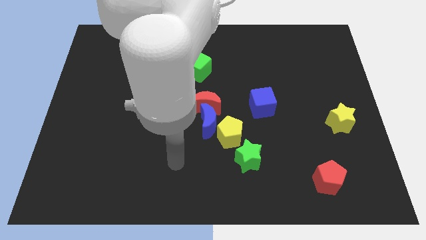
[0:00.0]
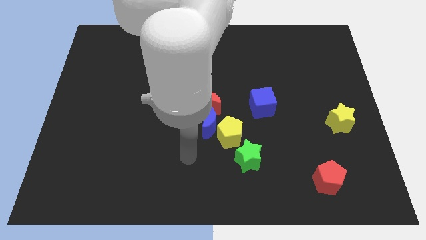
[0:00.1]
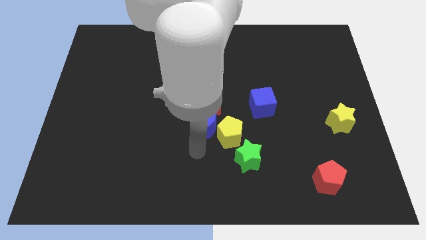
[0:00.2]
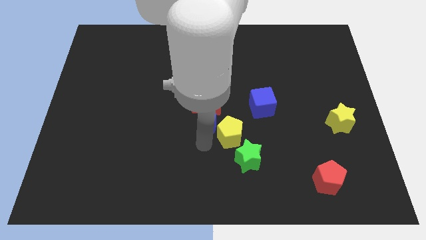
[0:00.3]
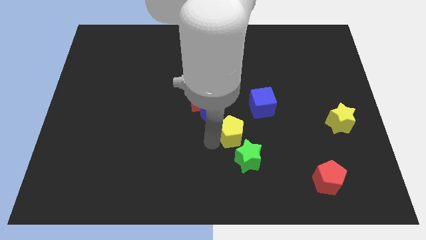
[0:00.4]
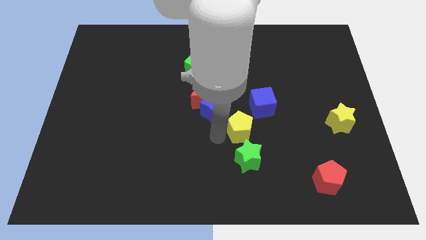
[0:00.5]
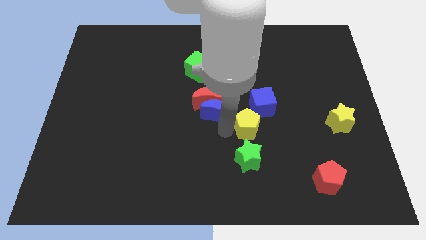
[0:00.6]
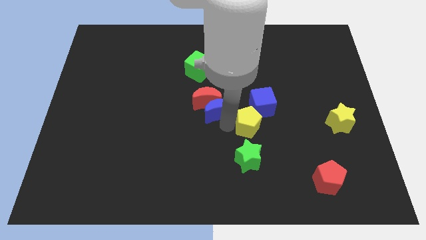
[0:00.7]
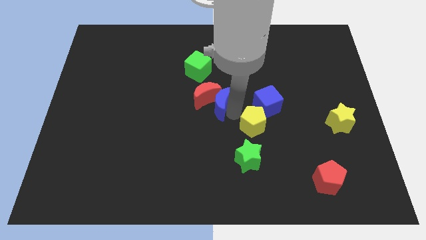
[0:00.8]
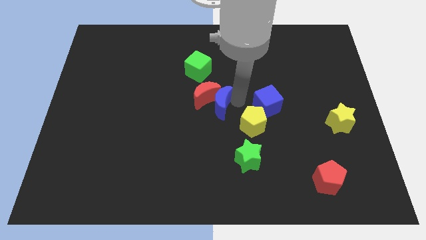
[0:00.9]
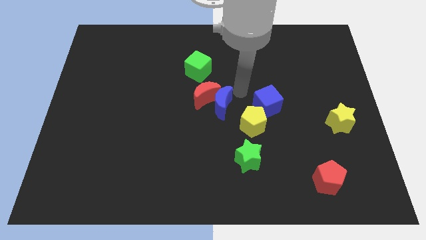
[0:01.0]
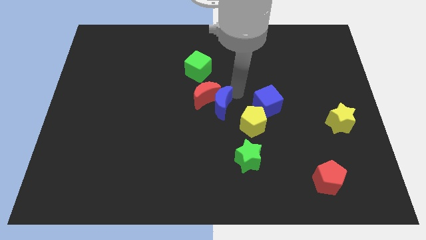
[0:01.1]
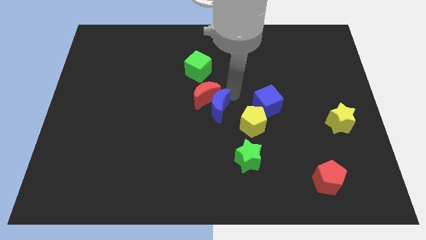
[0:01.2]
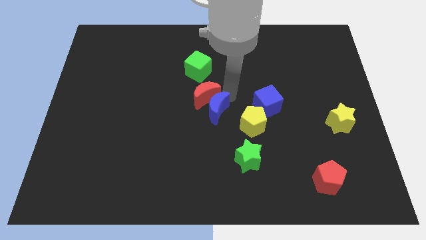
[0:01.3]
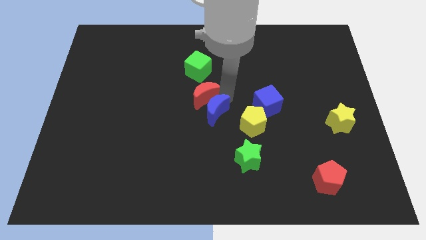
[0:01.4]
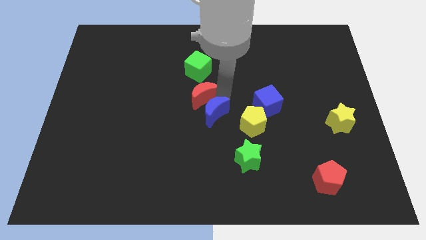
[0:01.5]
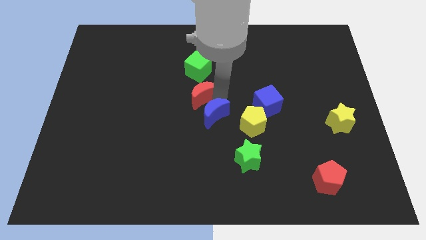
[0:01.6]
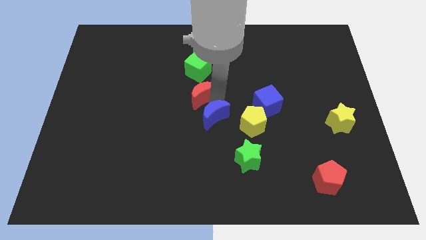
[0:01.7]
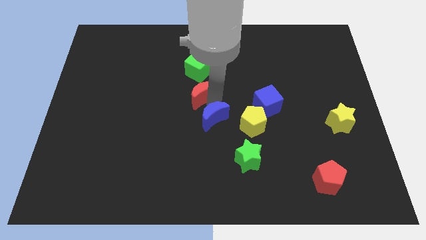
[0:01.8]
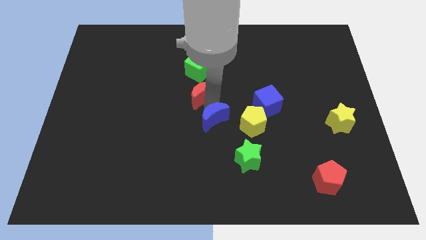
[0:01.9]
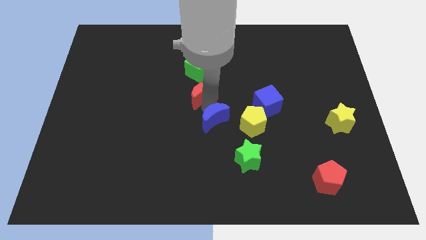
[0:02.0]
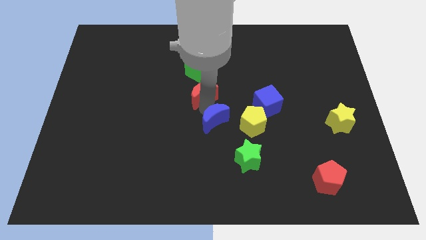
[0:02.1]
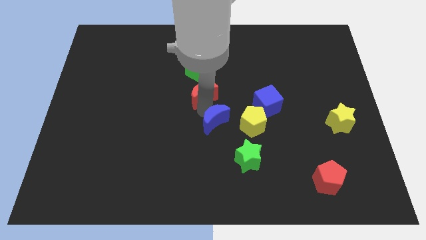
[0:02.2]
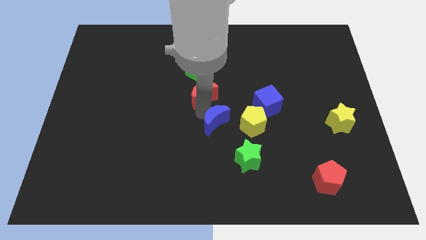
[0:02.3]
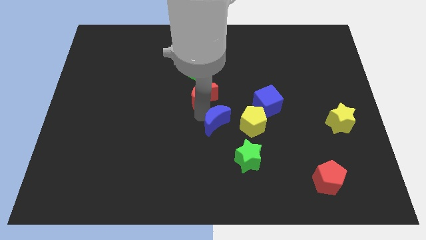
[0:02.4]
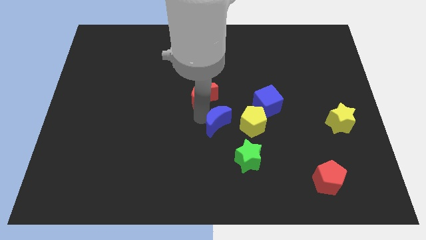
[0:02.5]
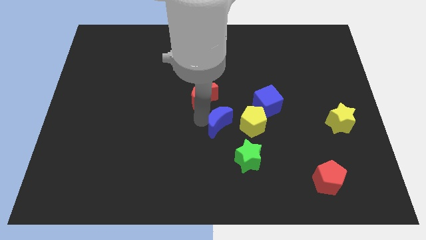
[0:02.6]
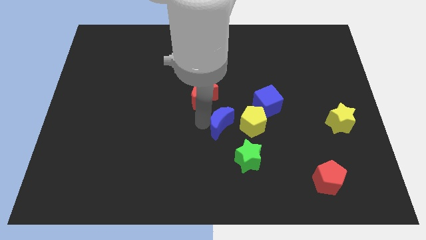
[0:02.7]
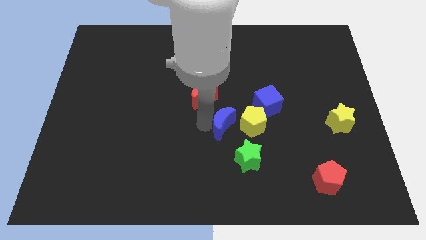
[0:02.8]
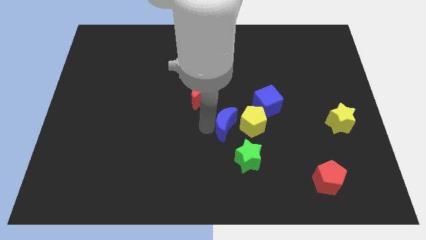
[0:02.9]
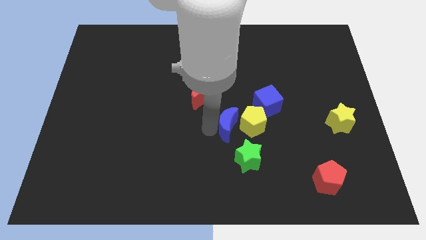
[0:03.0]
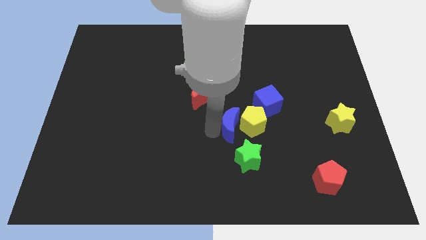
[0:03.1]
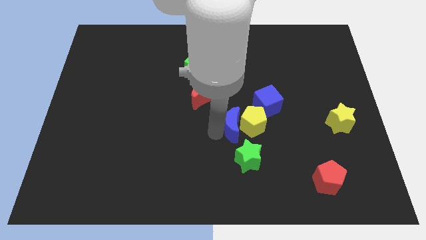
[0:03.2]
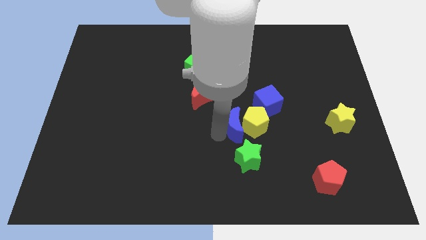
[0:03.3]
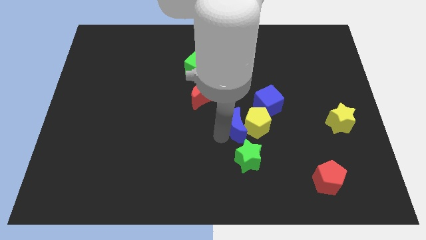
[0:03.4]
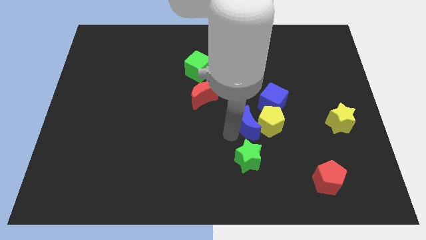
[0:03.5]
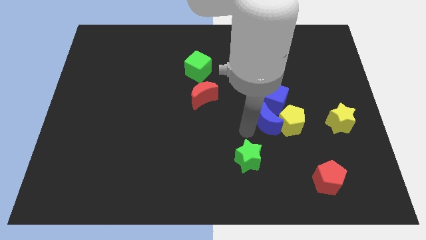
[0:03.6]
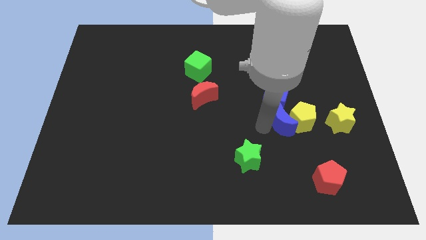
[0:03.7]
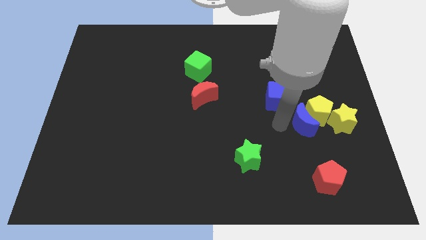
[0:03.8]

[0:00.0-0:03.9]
separate the blue moon from the red moon and yellow pentagon

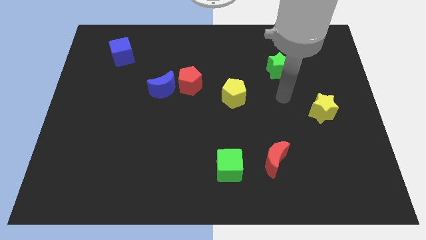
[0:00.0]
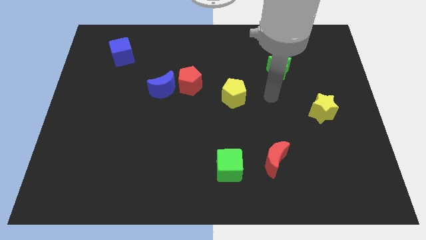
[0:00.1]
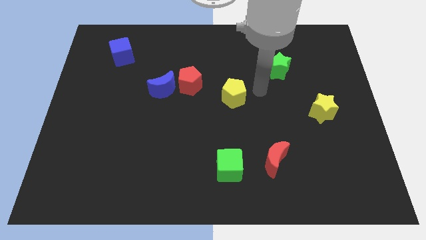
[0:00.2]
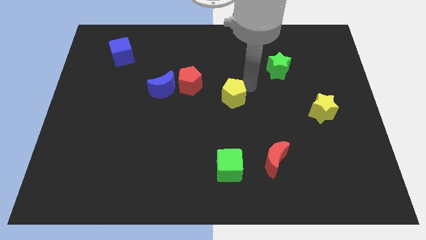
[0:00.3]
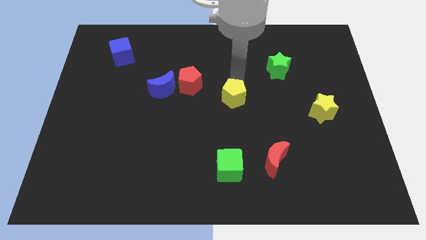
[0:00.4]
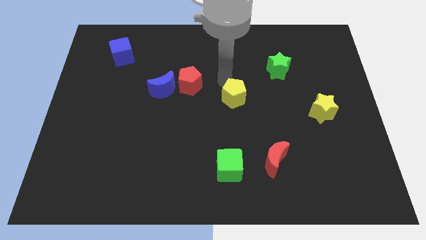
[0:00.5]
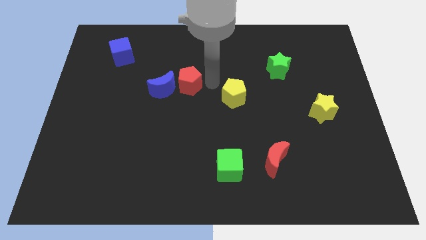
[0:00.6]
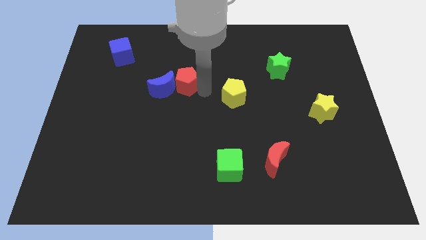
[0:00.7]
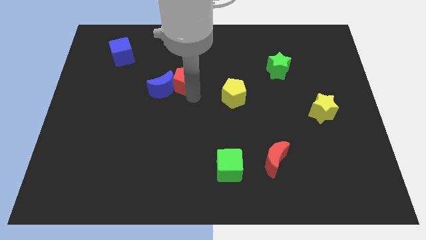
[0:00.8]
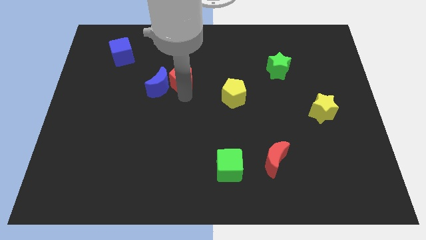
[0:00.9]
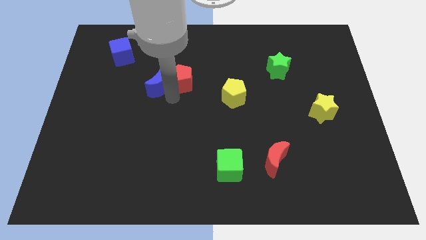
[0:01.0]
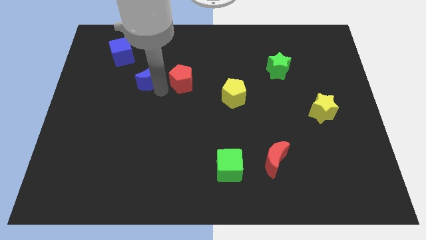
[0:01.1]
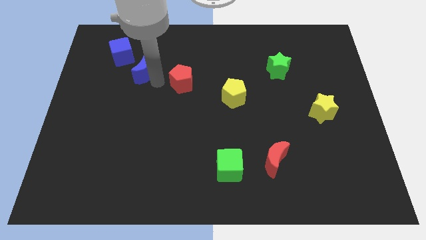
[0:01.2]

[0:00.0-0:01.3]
move the red pentagon away from the blue moon

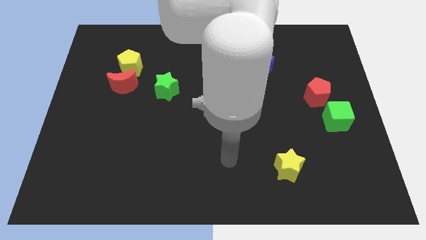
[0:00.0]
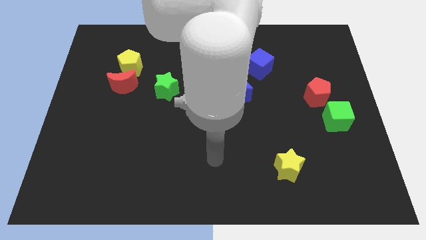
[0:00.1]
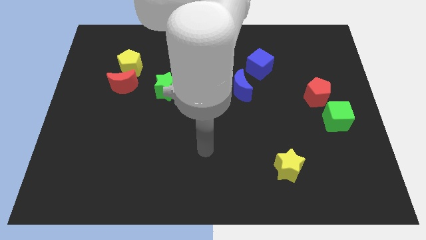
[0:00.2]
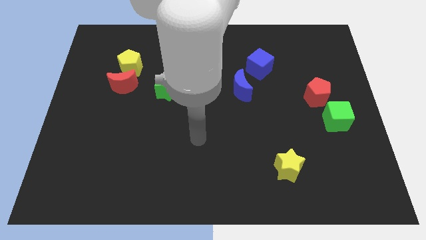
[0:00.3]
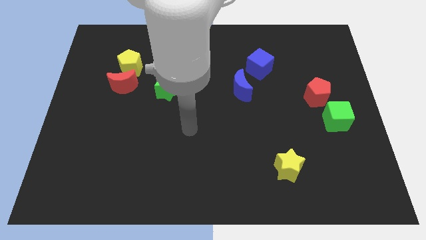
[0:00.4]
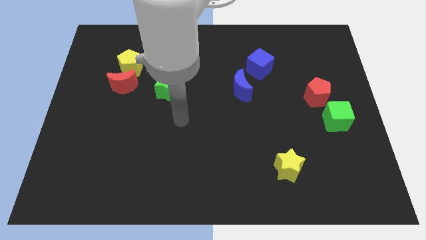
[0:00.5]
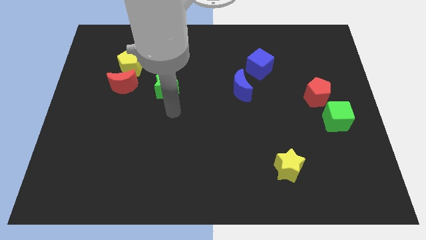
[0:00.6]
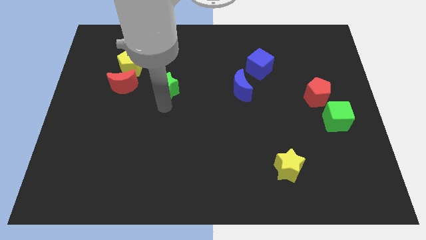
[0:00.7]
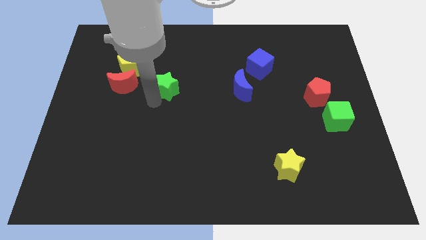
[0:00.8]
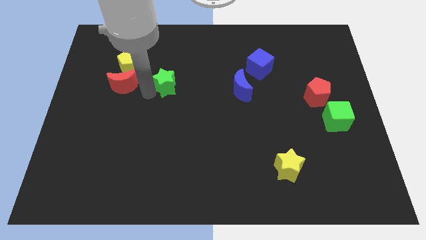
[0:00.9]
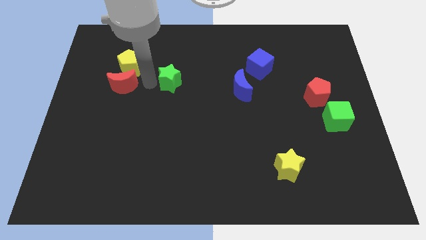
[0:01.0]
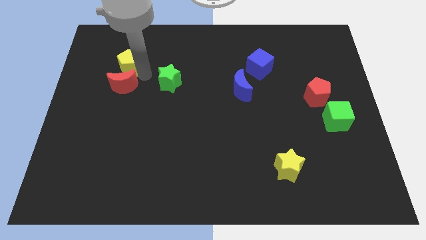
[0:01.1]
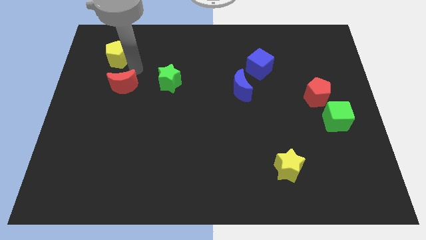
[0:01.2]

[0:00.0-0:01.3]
separate the red moon from the yellow pentagon

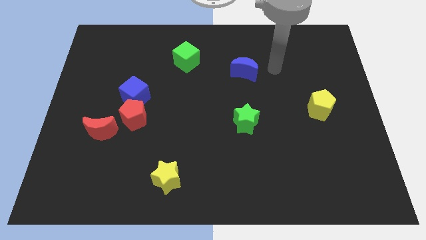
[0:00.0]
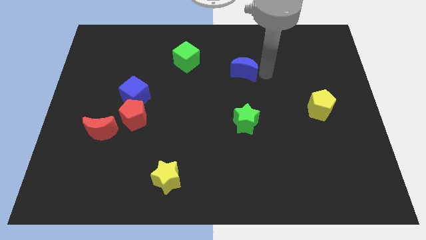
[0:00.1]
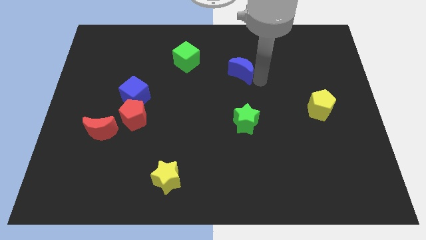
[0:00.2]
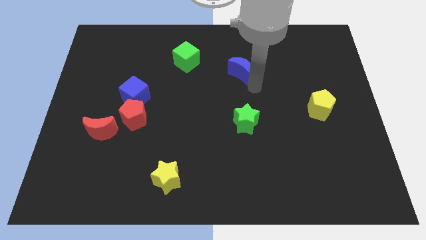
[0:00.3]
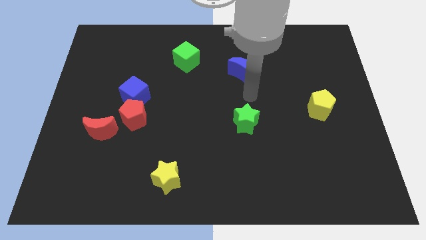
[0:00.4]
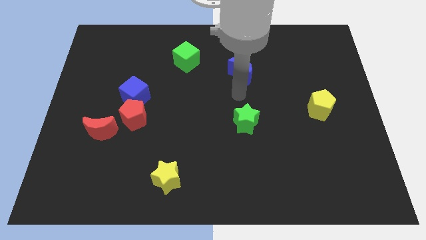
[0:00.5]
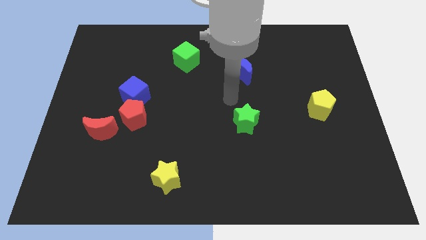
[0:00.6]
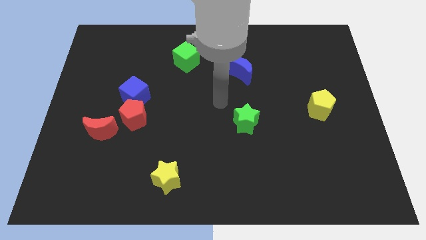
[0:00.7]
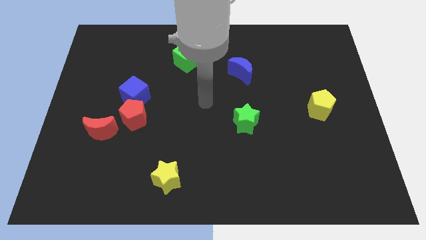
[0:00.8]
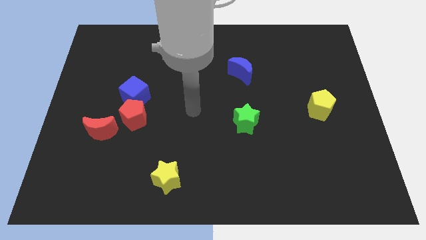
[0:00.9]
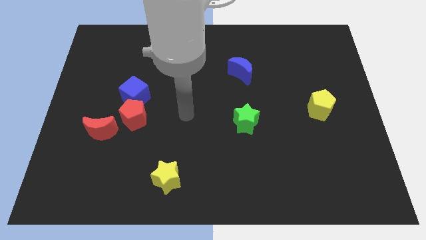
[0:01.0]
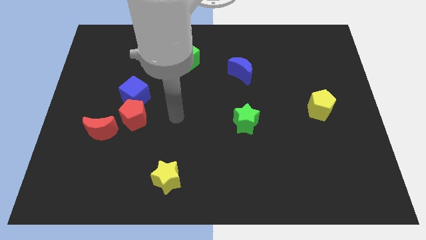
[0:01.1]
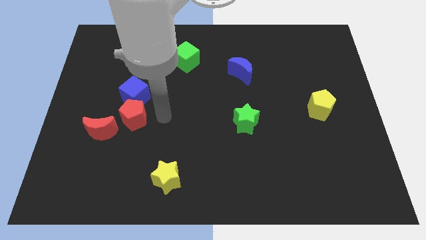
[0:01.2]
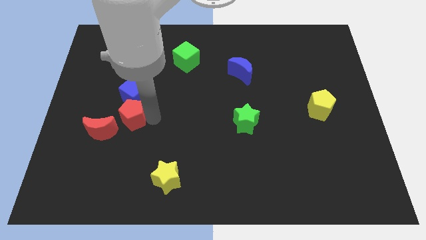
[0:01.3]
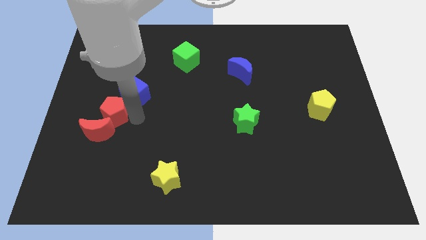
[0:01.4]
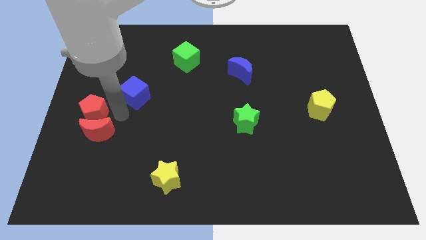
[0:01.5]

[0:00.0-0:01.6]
move the blue cube away from the red pentagon

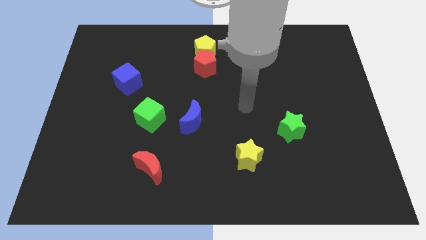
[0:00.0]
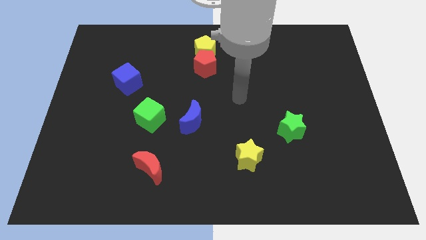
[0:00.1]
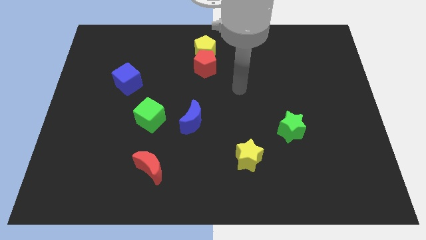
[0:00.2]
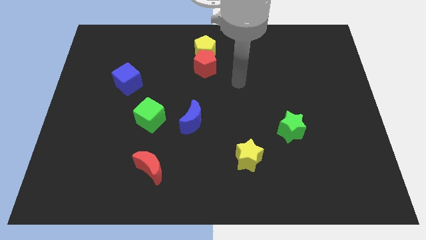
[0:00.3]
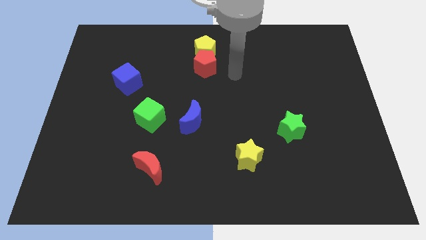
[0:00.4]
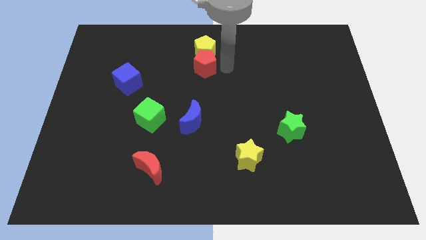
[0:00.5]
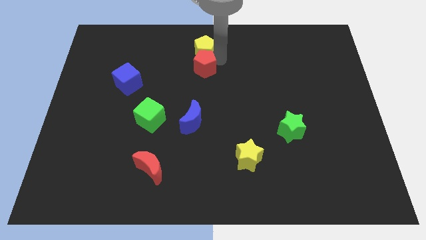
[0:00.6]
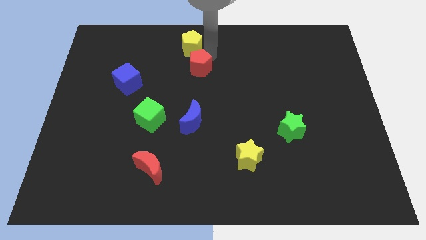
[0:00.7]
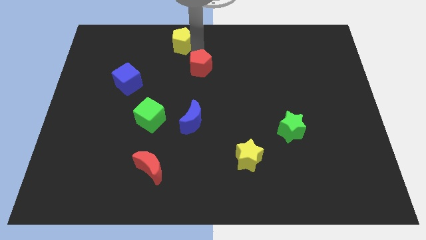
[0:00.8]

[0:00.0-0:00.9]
separate the red pentagon from the yellow pentagon

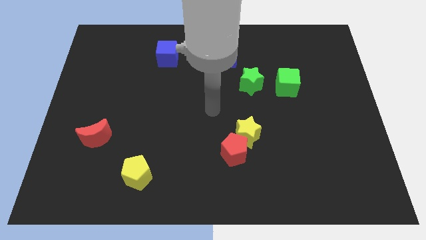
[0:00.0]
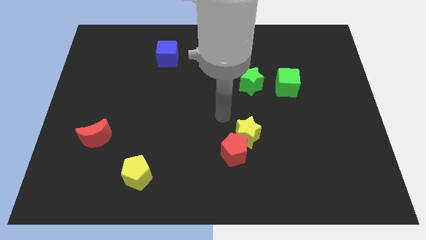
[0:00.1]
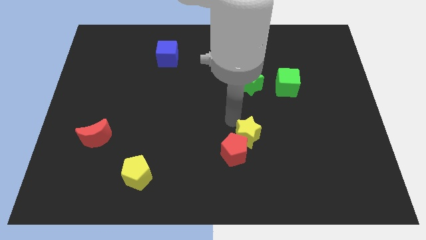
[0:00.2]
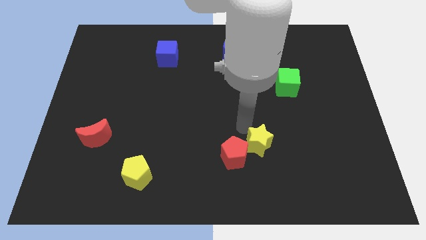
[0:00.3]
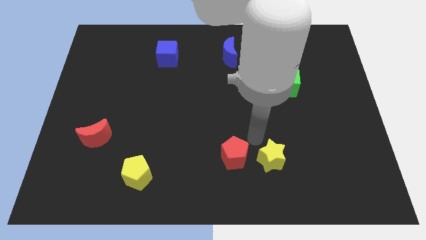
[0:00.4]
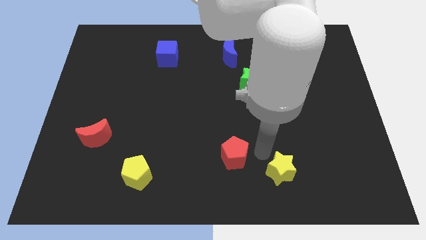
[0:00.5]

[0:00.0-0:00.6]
move the red pentagon away from the yellow star
